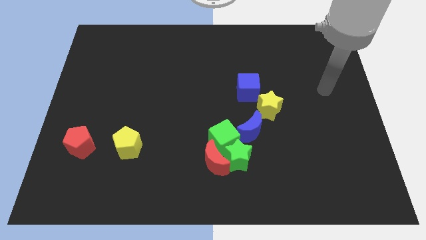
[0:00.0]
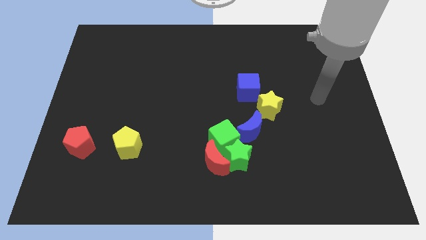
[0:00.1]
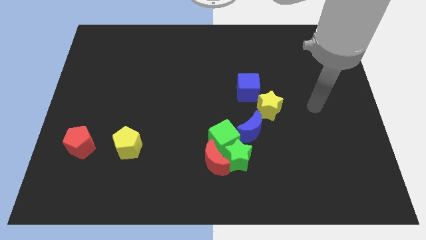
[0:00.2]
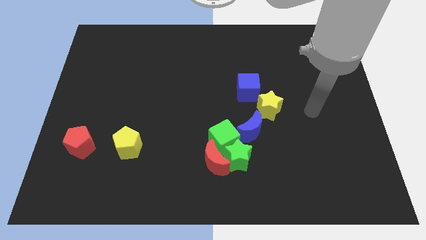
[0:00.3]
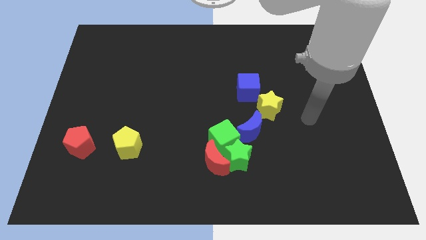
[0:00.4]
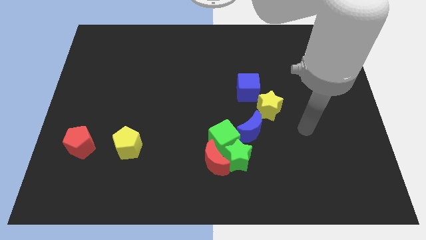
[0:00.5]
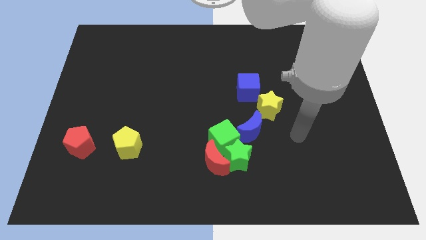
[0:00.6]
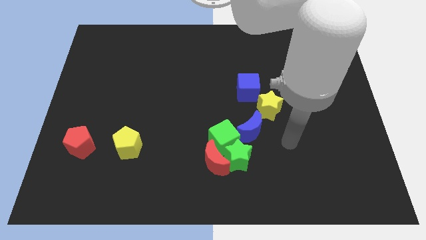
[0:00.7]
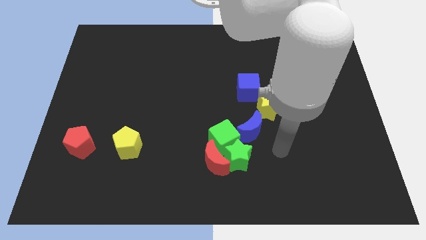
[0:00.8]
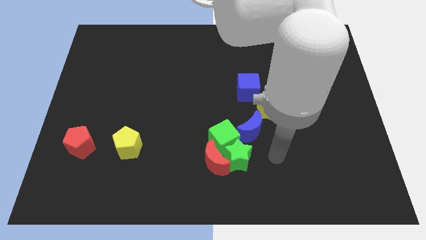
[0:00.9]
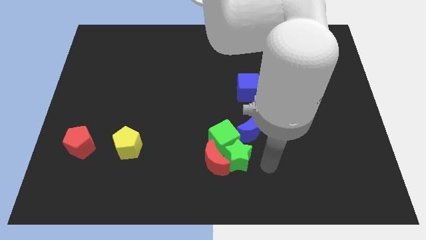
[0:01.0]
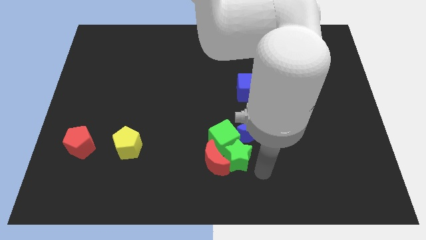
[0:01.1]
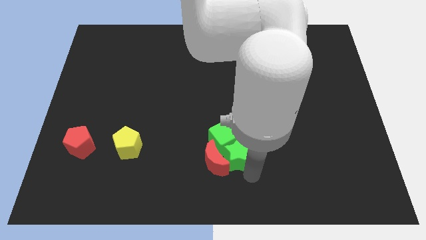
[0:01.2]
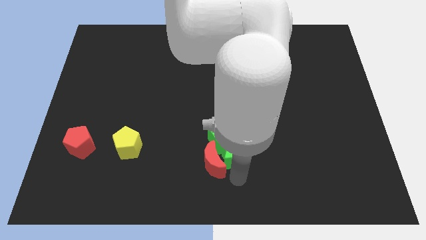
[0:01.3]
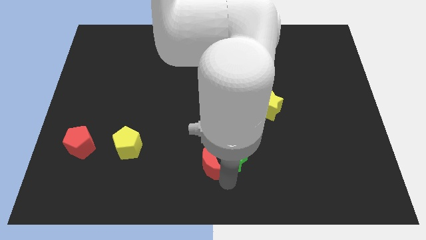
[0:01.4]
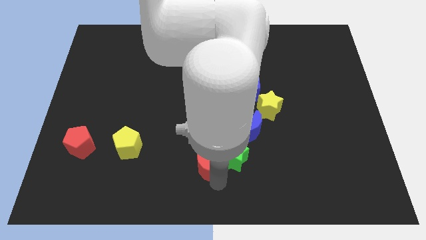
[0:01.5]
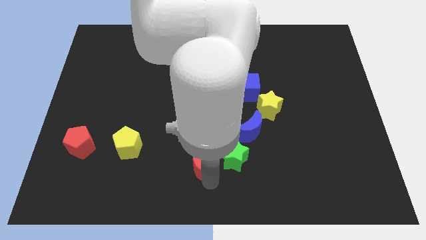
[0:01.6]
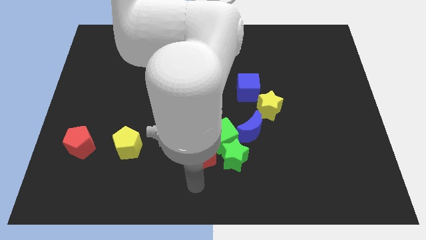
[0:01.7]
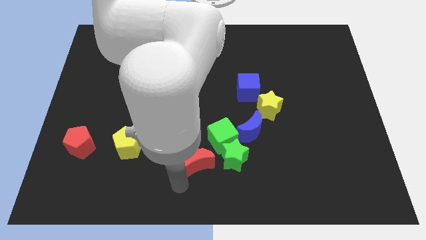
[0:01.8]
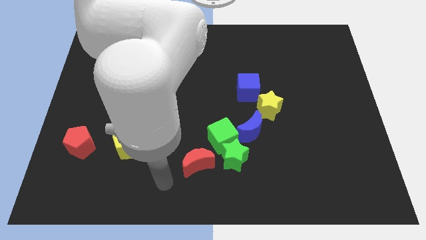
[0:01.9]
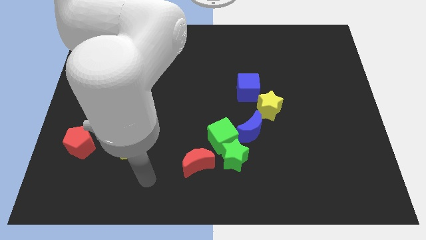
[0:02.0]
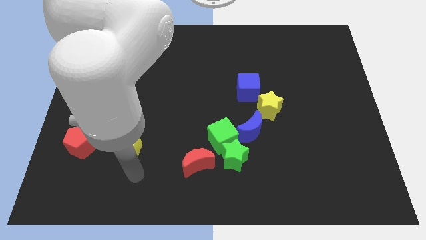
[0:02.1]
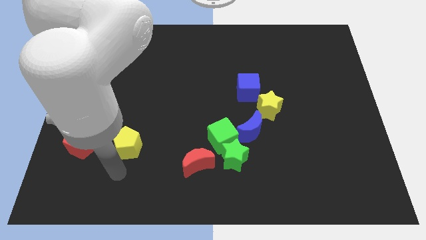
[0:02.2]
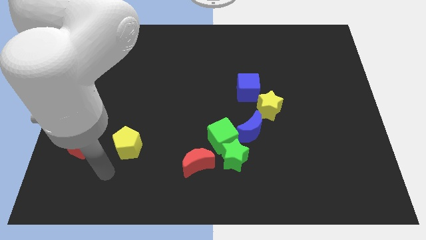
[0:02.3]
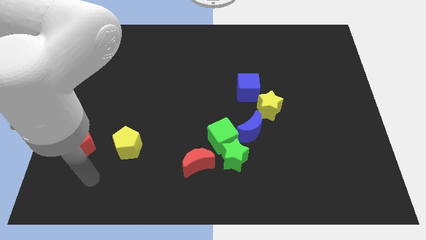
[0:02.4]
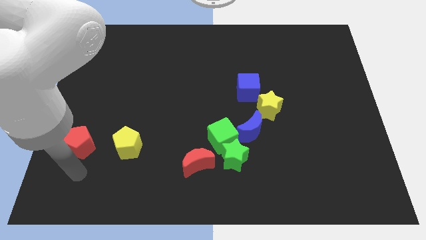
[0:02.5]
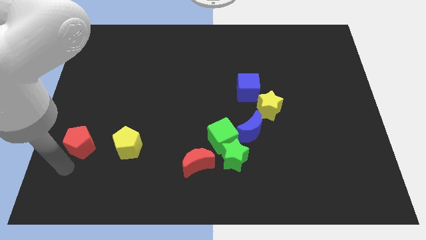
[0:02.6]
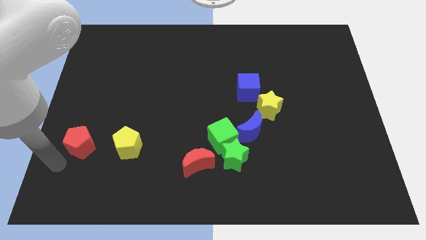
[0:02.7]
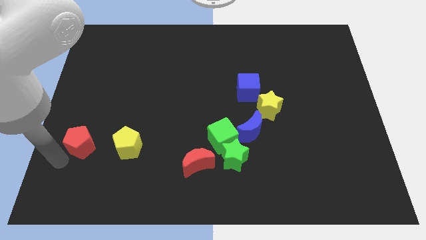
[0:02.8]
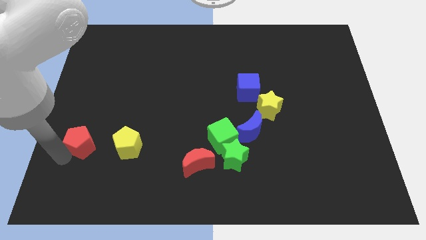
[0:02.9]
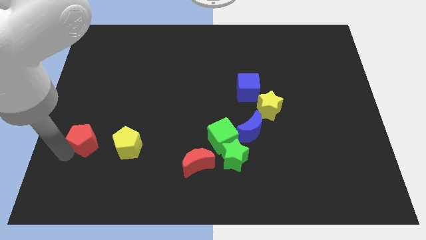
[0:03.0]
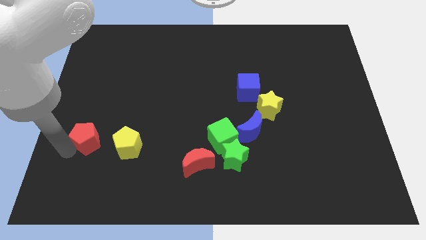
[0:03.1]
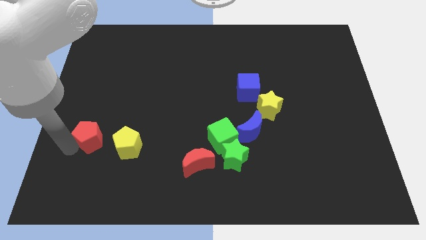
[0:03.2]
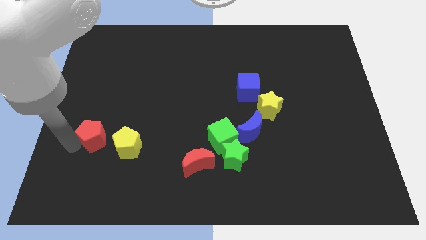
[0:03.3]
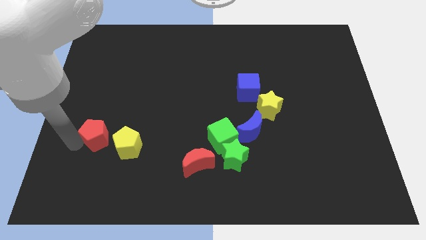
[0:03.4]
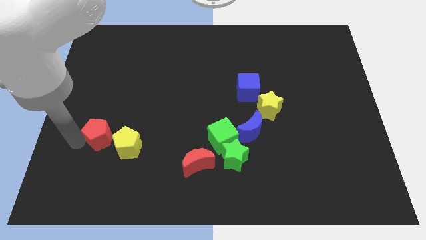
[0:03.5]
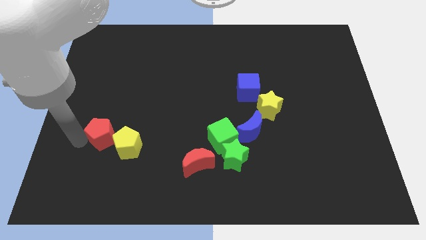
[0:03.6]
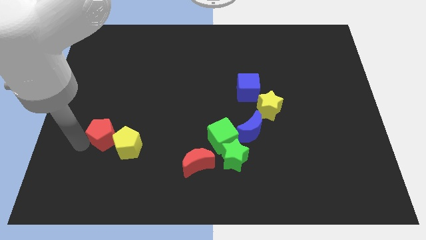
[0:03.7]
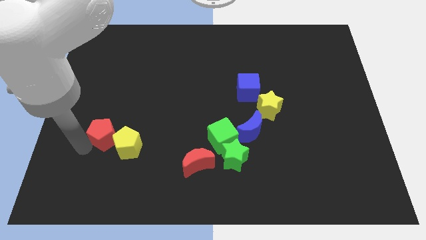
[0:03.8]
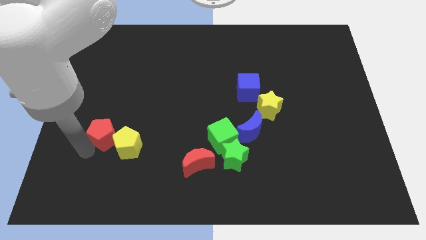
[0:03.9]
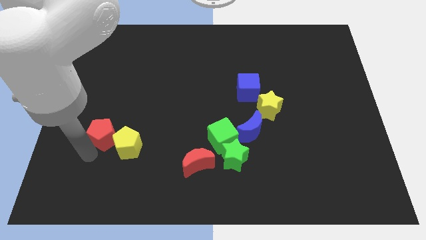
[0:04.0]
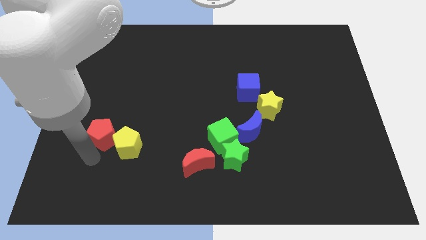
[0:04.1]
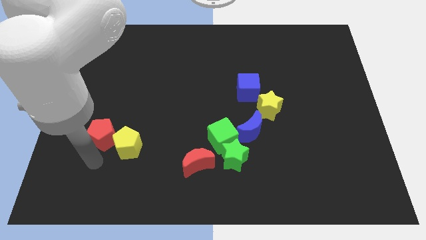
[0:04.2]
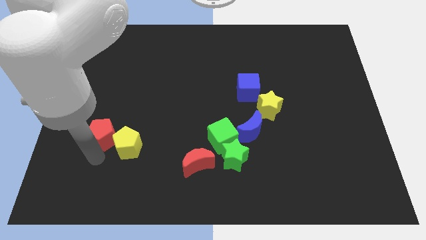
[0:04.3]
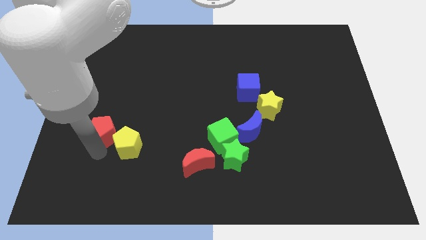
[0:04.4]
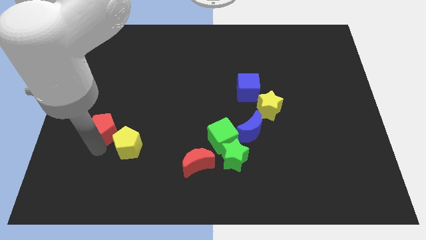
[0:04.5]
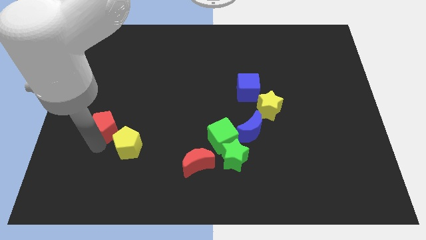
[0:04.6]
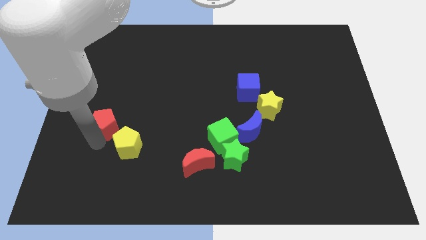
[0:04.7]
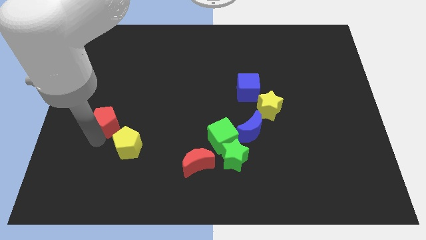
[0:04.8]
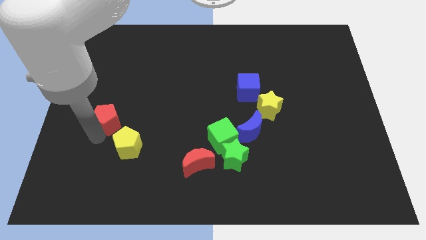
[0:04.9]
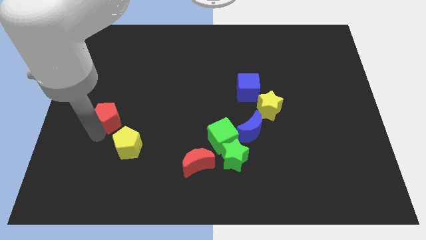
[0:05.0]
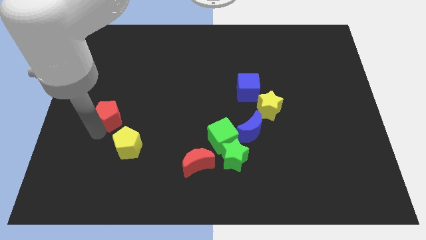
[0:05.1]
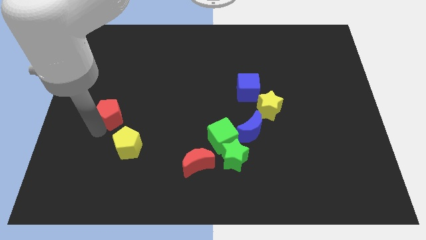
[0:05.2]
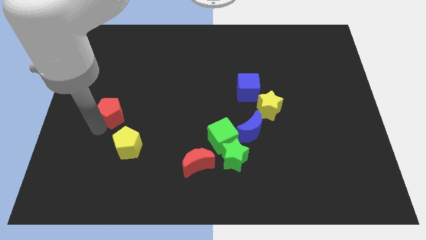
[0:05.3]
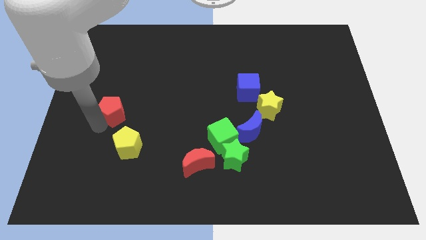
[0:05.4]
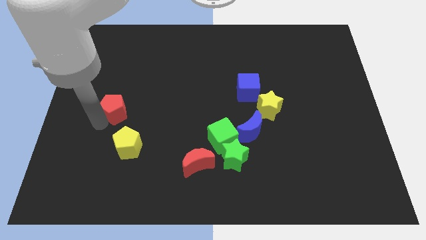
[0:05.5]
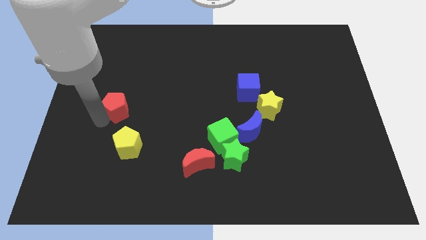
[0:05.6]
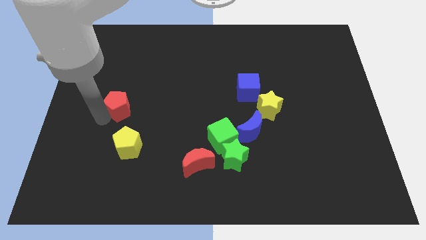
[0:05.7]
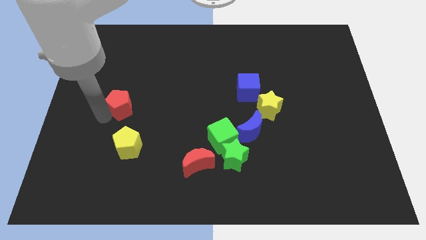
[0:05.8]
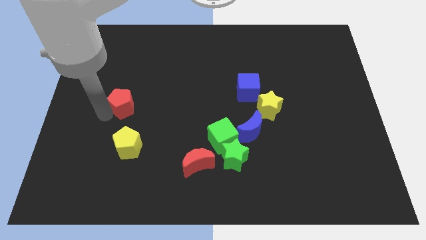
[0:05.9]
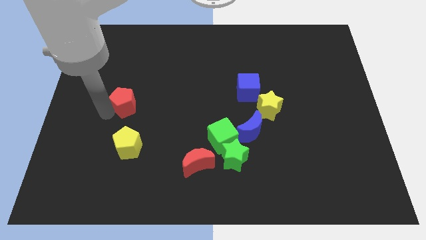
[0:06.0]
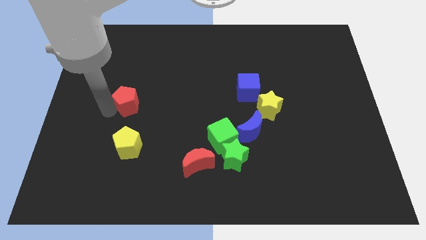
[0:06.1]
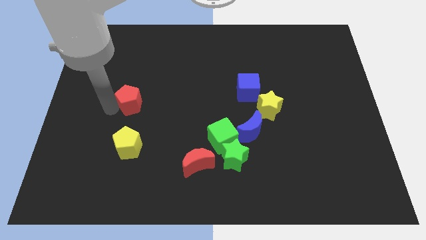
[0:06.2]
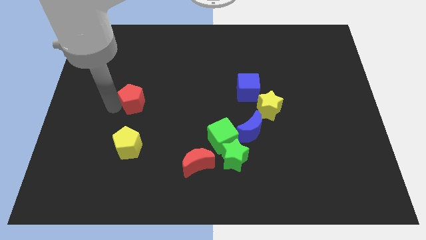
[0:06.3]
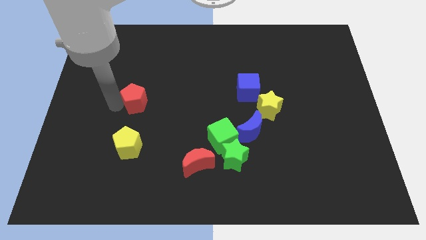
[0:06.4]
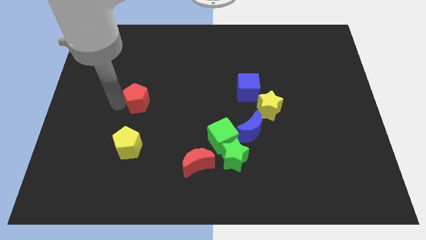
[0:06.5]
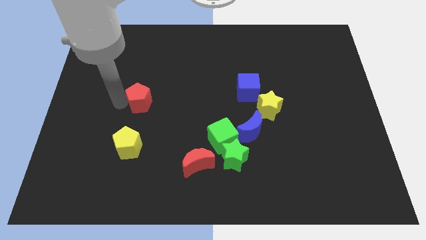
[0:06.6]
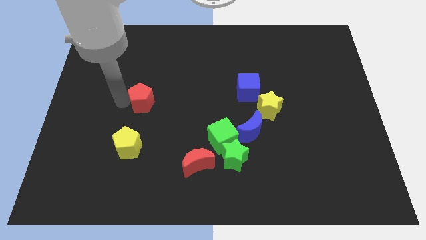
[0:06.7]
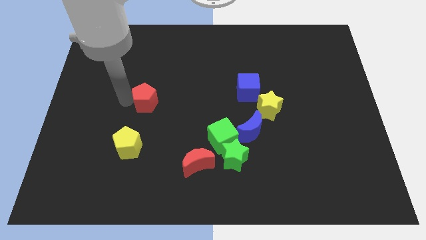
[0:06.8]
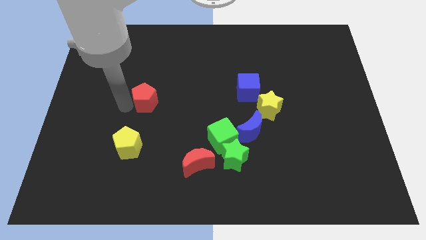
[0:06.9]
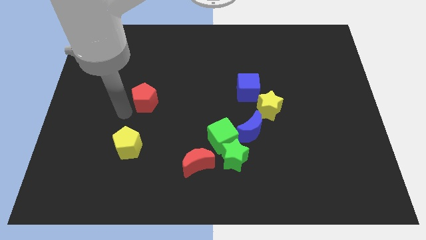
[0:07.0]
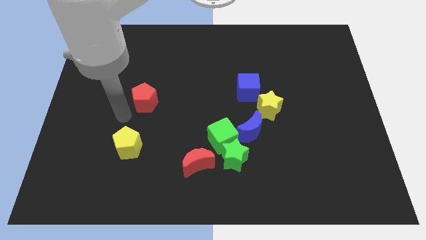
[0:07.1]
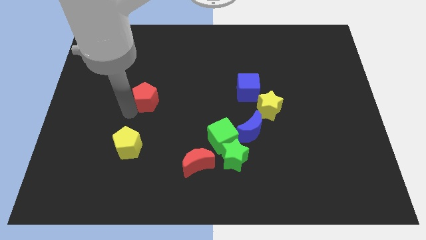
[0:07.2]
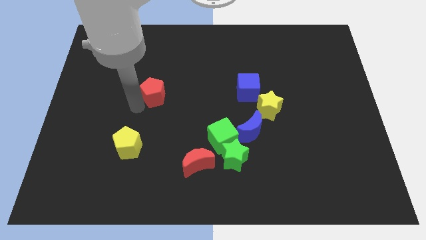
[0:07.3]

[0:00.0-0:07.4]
slide the red pentagon upwards and right

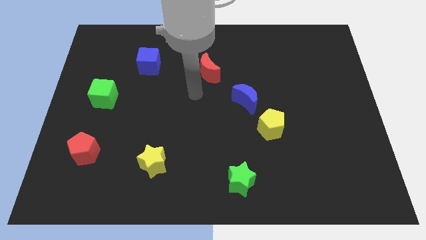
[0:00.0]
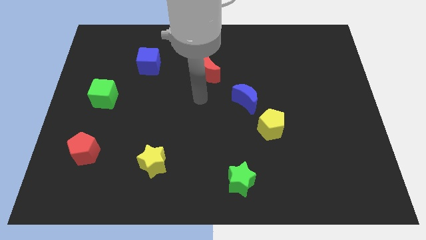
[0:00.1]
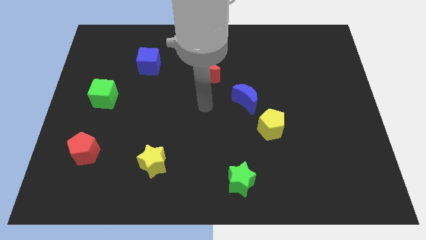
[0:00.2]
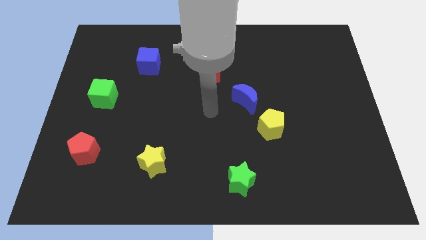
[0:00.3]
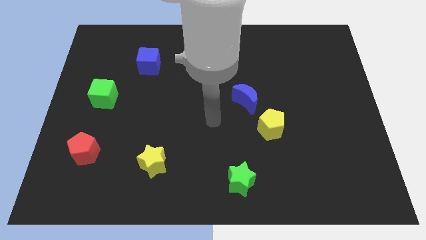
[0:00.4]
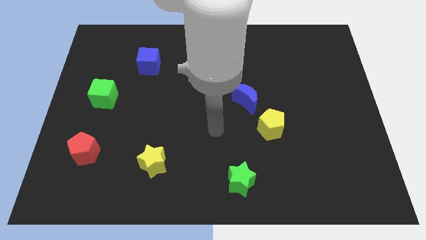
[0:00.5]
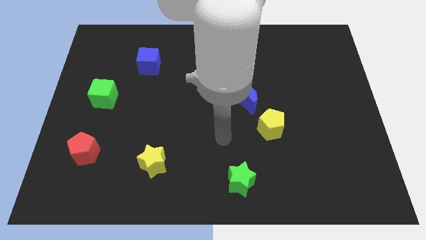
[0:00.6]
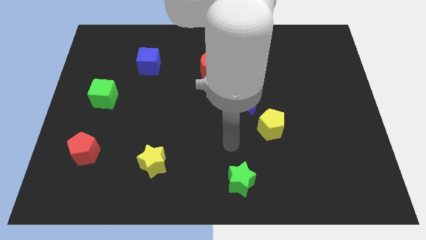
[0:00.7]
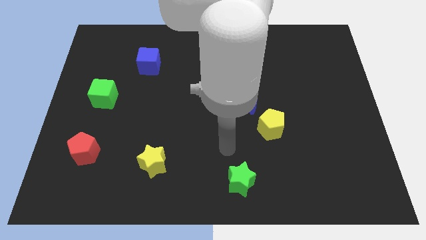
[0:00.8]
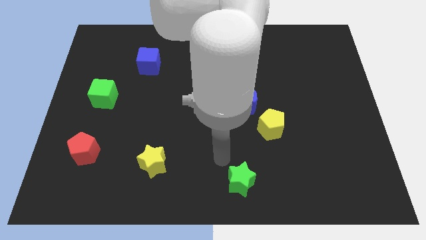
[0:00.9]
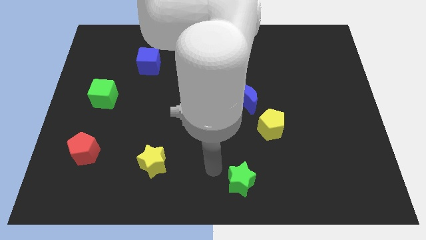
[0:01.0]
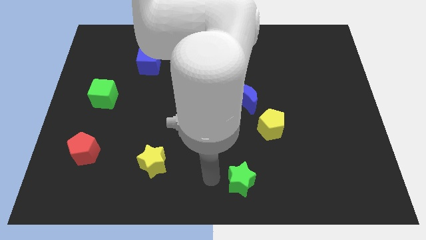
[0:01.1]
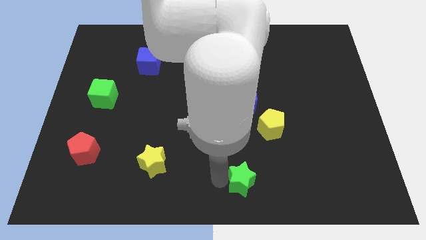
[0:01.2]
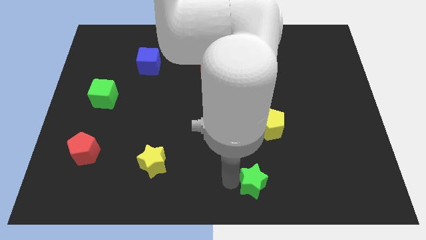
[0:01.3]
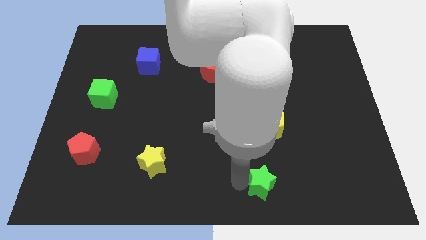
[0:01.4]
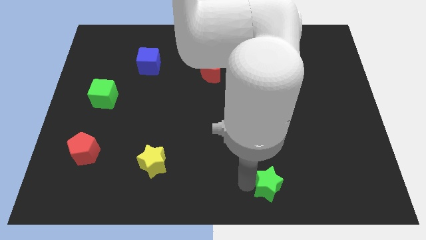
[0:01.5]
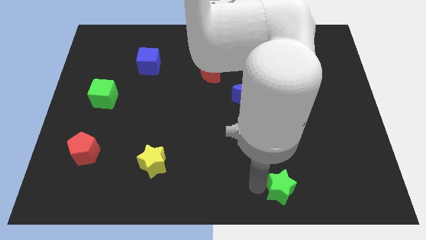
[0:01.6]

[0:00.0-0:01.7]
slightly move the green star right
